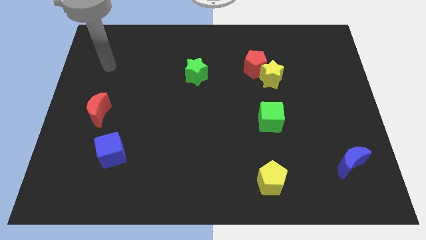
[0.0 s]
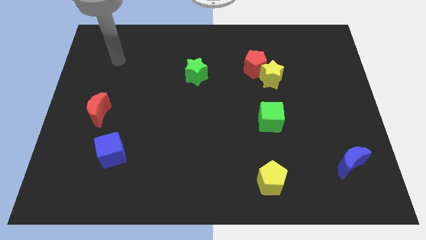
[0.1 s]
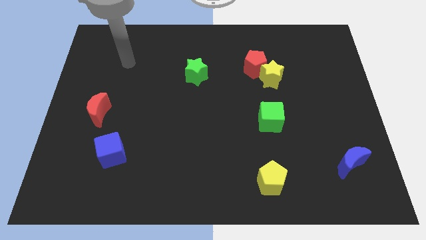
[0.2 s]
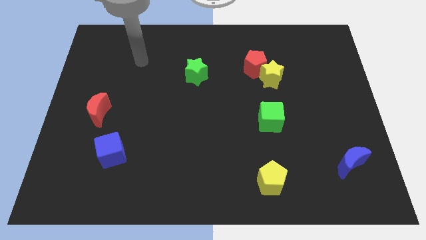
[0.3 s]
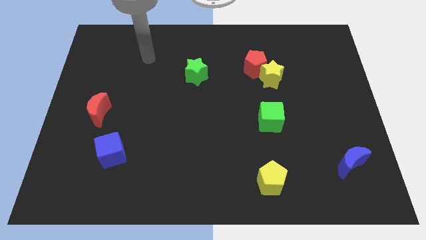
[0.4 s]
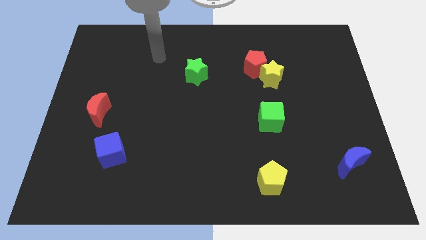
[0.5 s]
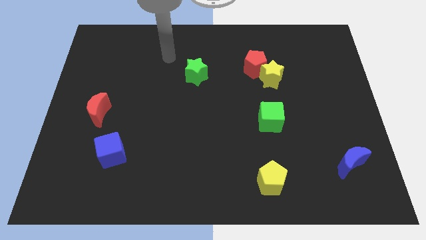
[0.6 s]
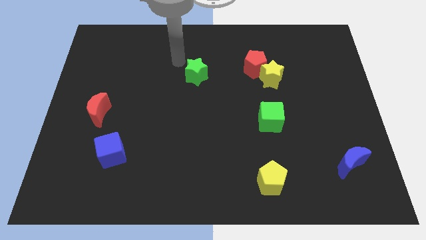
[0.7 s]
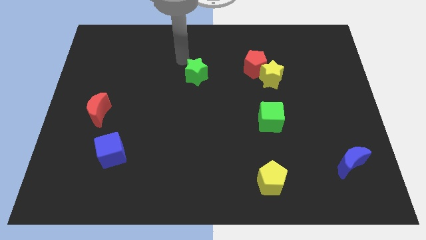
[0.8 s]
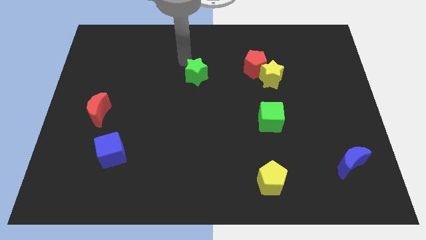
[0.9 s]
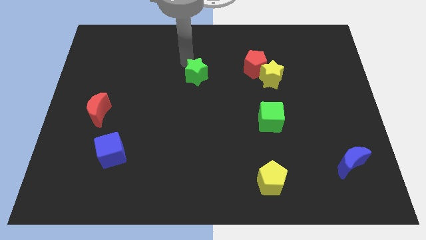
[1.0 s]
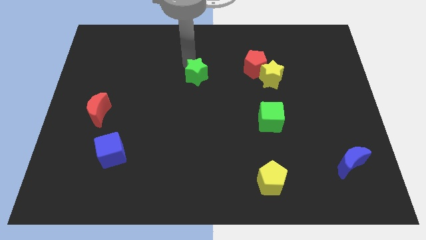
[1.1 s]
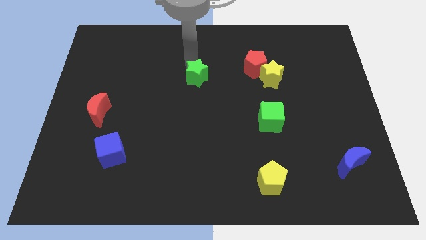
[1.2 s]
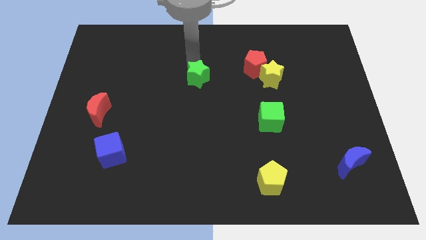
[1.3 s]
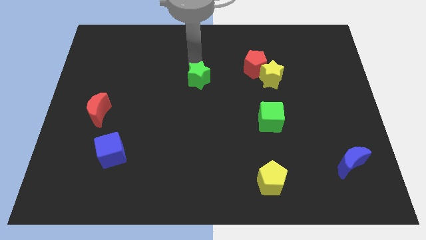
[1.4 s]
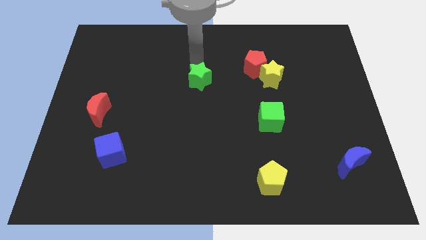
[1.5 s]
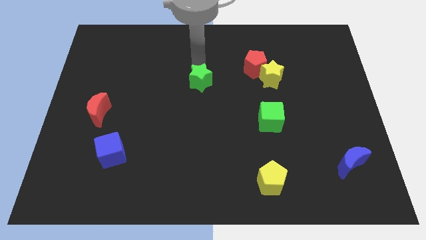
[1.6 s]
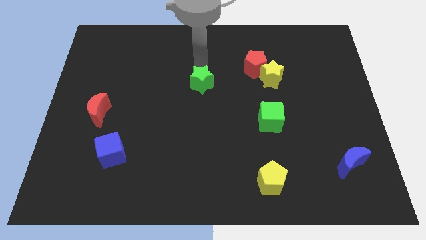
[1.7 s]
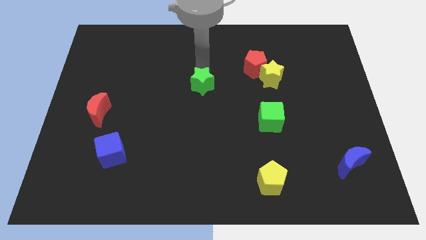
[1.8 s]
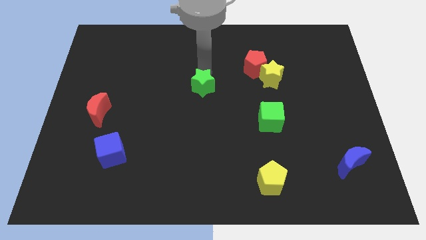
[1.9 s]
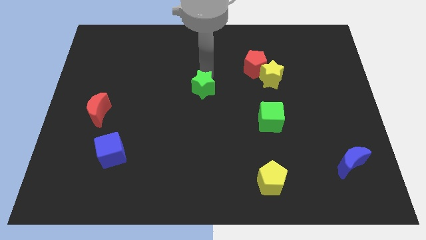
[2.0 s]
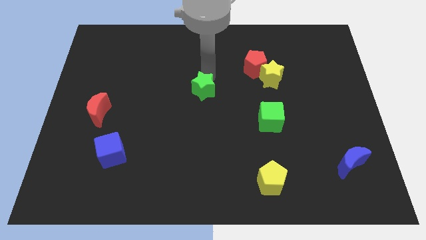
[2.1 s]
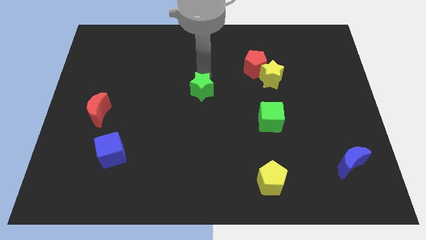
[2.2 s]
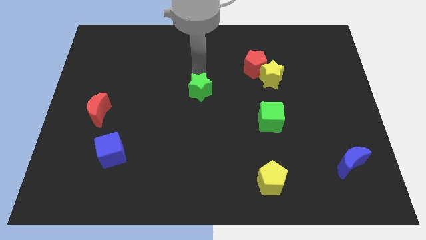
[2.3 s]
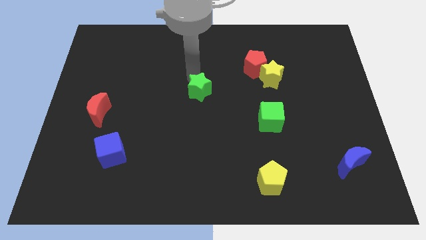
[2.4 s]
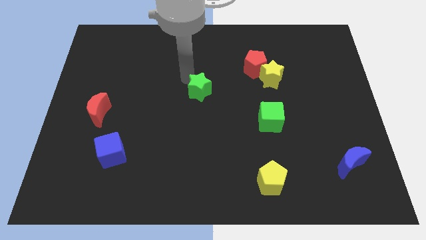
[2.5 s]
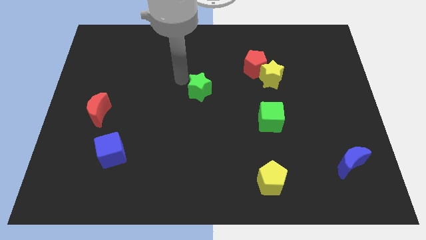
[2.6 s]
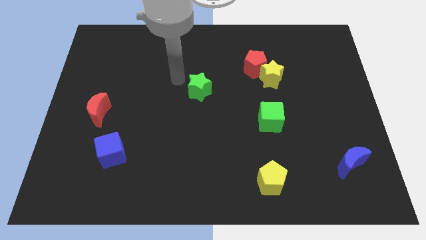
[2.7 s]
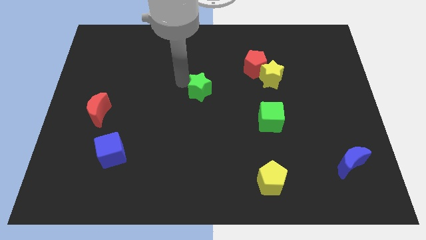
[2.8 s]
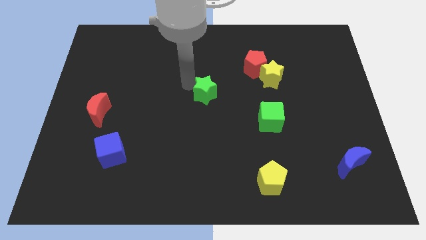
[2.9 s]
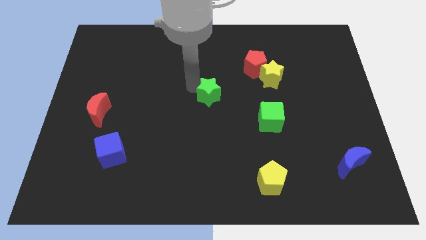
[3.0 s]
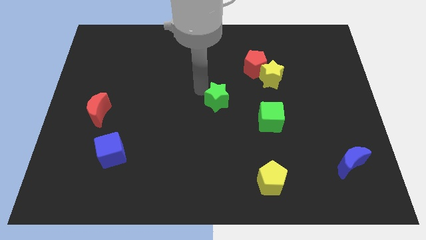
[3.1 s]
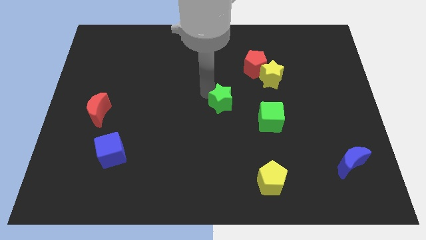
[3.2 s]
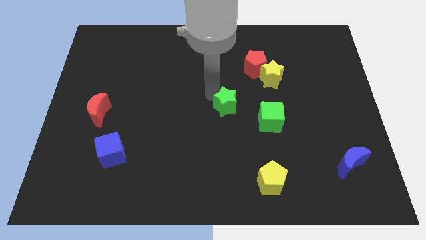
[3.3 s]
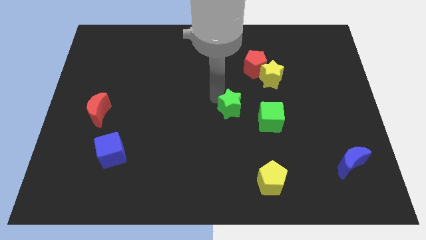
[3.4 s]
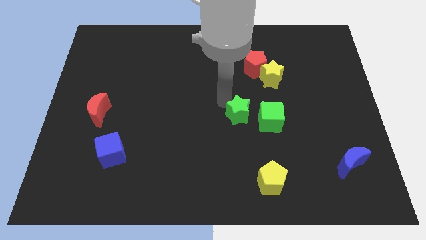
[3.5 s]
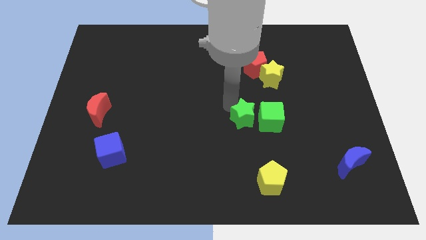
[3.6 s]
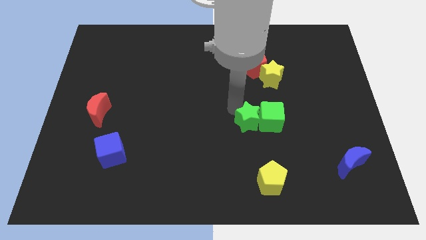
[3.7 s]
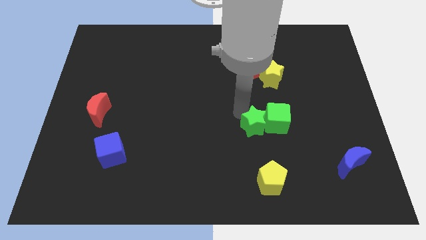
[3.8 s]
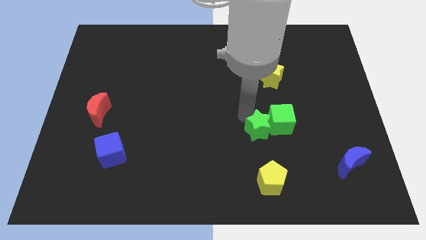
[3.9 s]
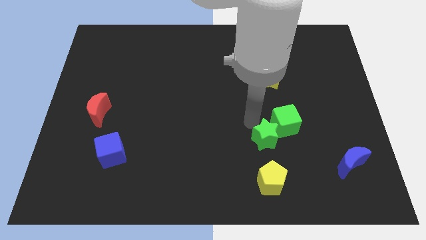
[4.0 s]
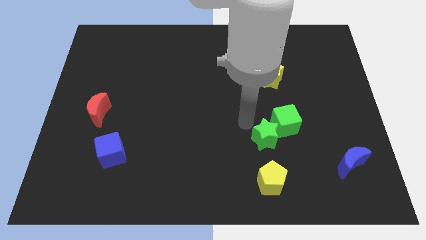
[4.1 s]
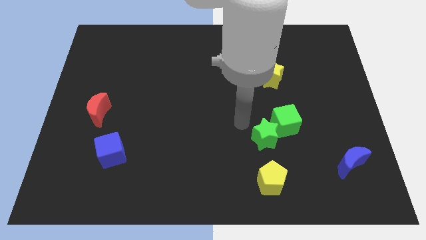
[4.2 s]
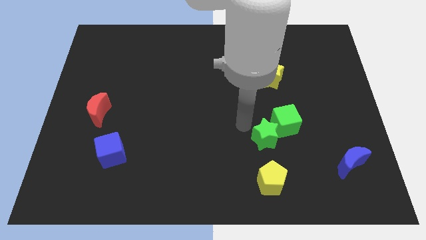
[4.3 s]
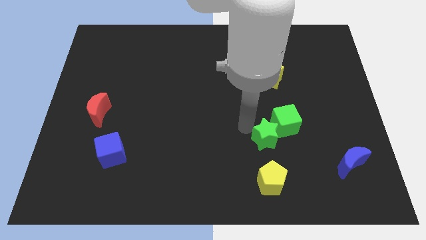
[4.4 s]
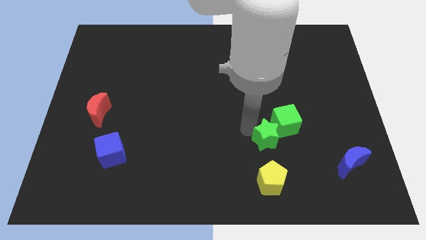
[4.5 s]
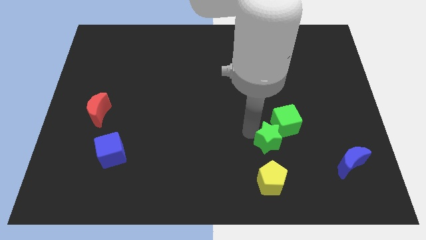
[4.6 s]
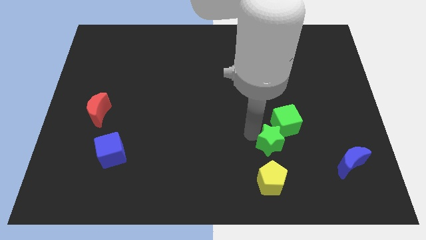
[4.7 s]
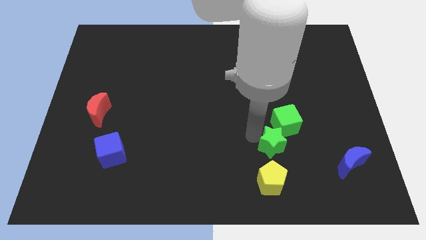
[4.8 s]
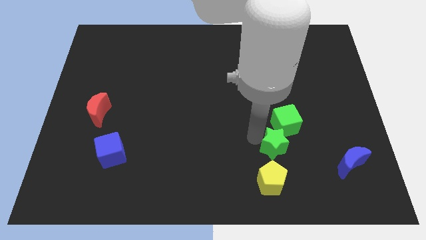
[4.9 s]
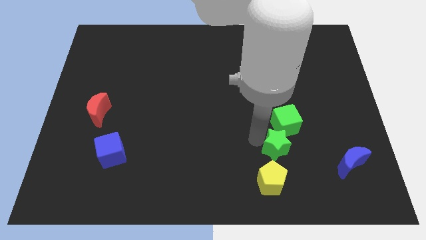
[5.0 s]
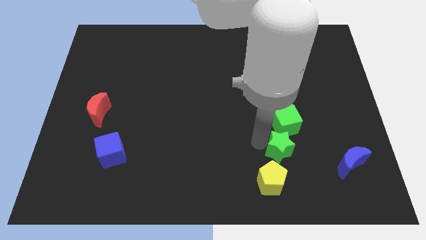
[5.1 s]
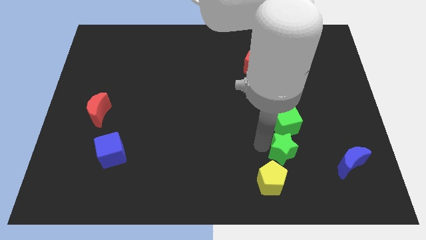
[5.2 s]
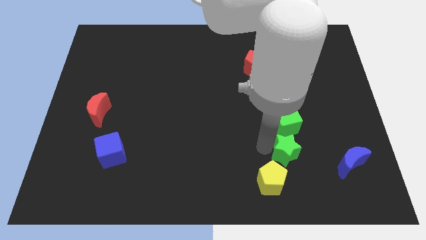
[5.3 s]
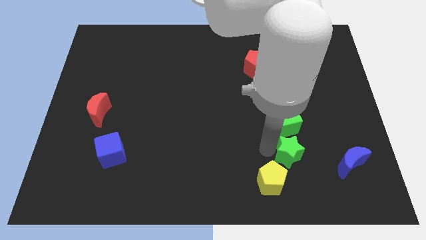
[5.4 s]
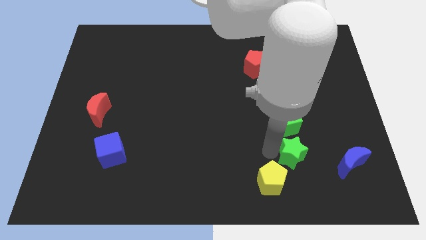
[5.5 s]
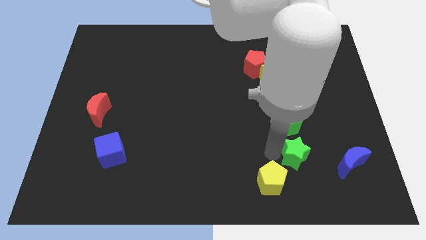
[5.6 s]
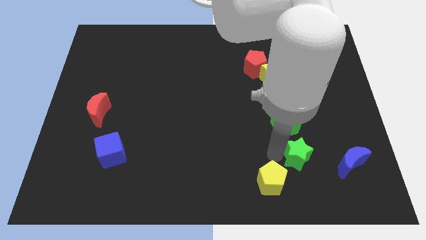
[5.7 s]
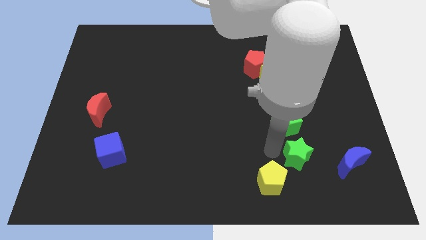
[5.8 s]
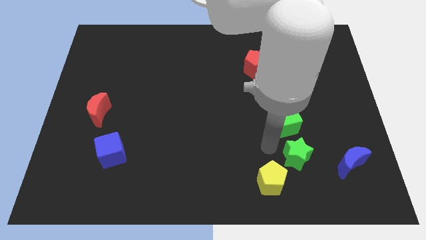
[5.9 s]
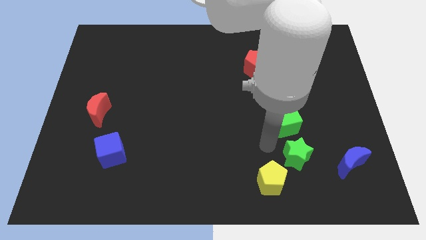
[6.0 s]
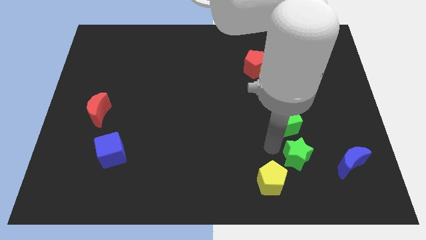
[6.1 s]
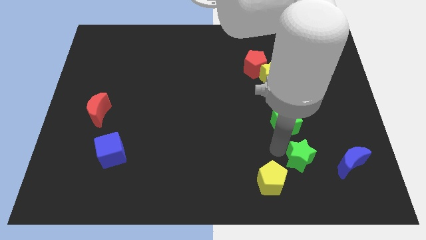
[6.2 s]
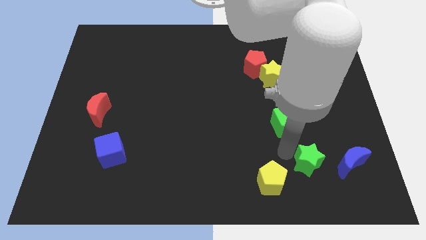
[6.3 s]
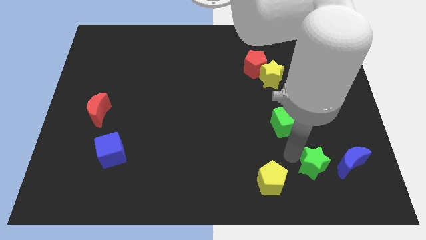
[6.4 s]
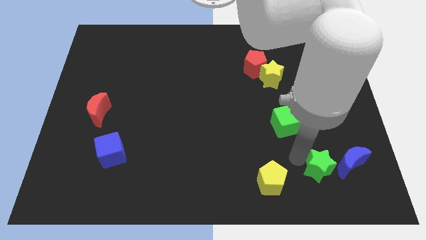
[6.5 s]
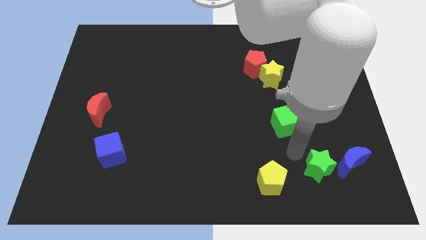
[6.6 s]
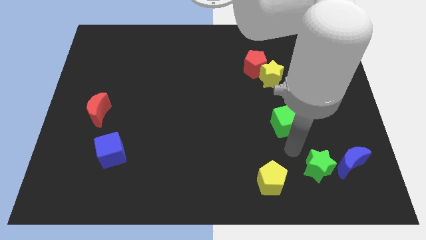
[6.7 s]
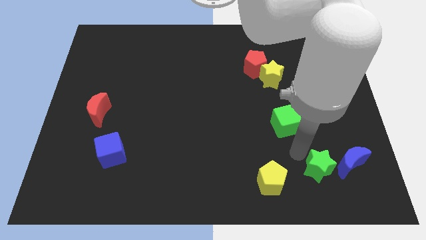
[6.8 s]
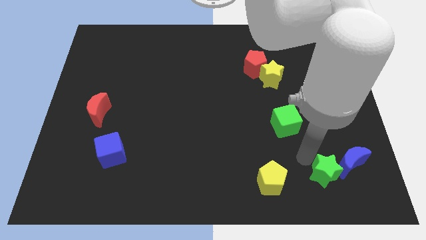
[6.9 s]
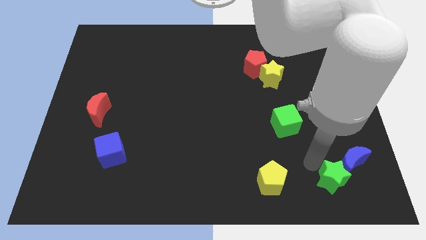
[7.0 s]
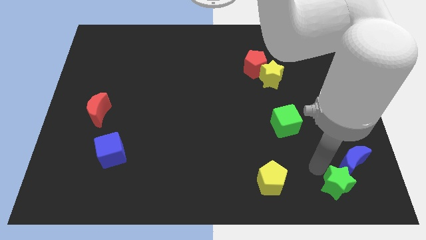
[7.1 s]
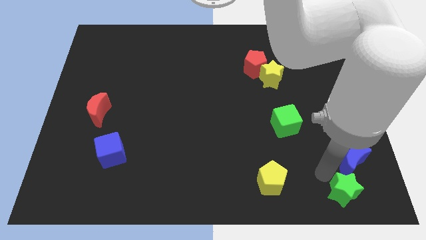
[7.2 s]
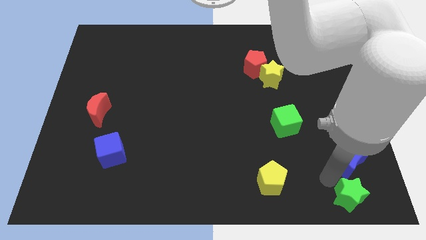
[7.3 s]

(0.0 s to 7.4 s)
slide the green star to the bottom right of the board
